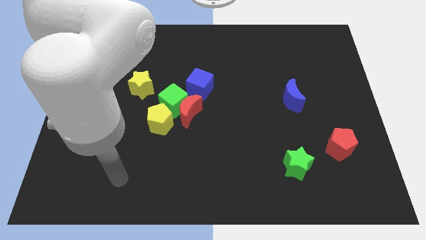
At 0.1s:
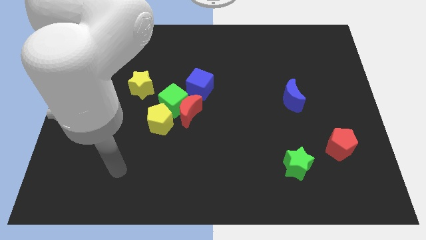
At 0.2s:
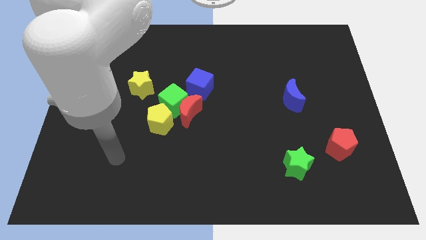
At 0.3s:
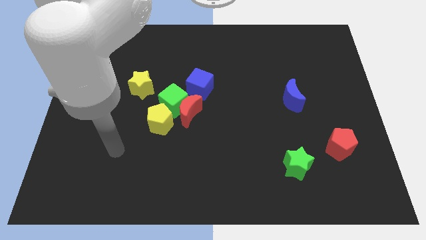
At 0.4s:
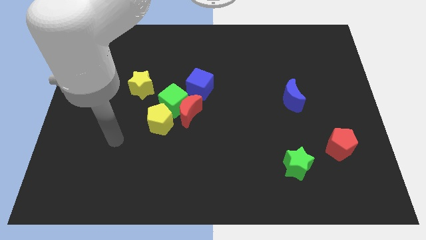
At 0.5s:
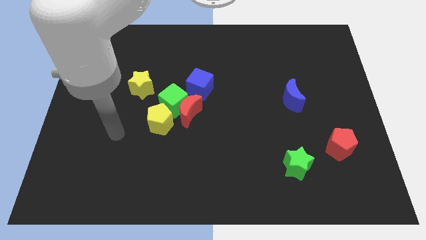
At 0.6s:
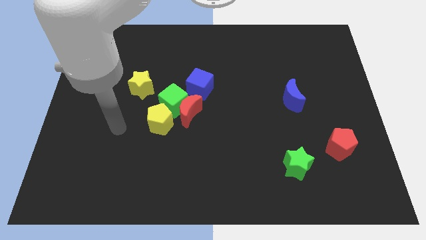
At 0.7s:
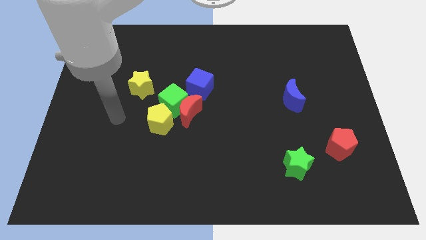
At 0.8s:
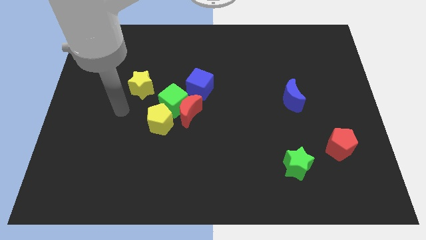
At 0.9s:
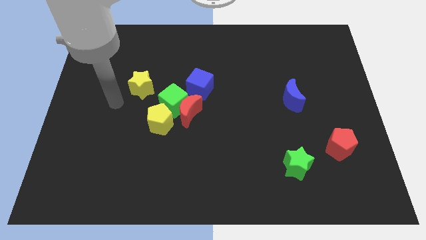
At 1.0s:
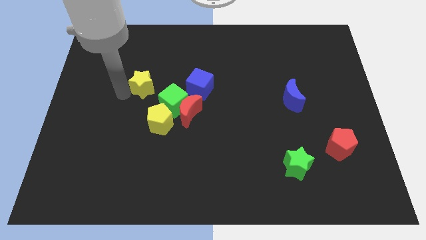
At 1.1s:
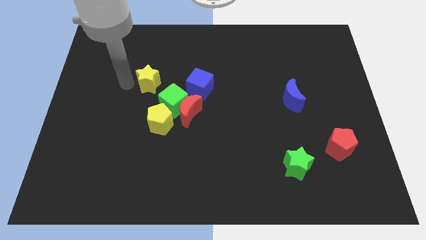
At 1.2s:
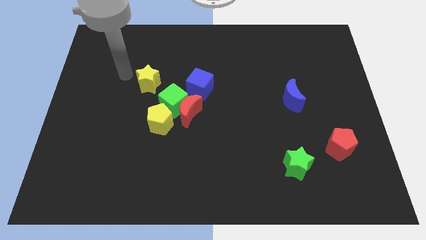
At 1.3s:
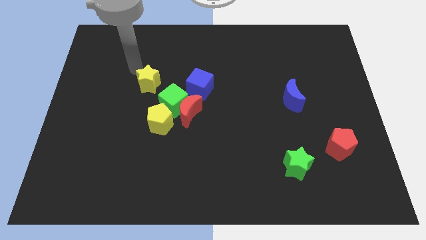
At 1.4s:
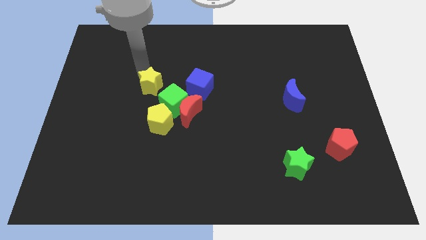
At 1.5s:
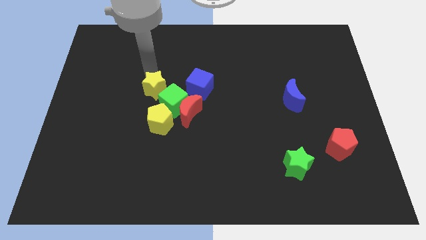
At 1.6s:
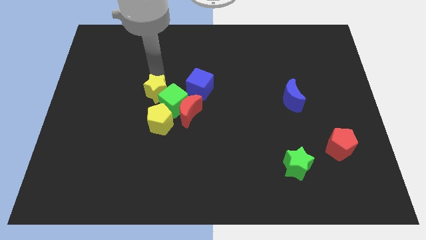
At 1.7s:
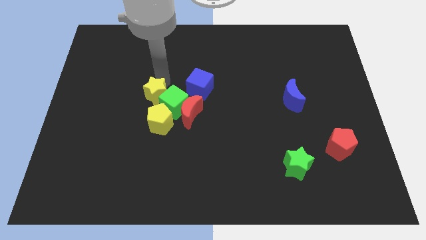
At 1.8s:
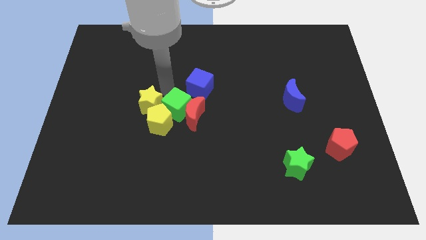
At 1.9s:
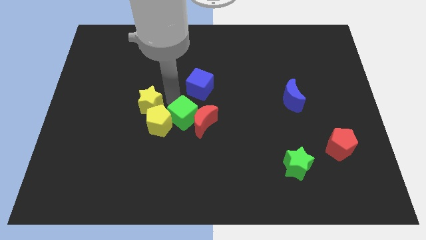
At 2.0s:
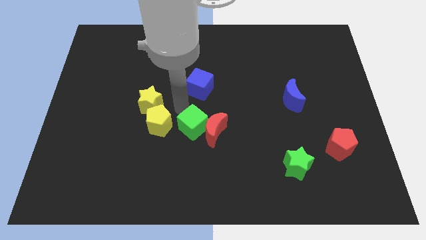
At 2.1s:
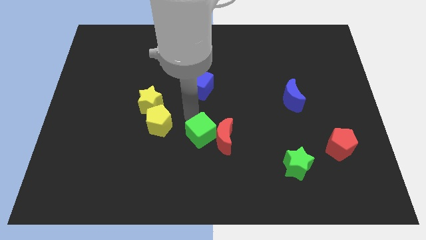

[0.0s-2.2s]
move the red moon away from the group

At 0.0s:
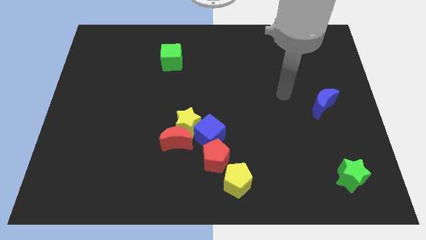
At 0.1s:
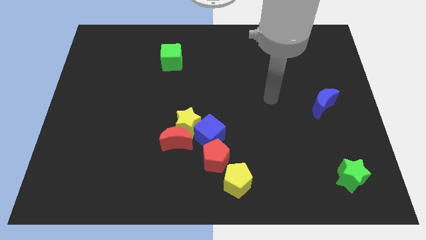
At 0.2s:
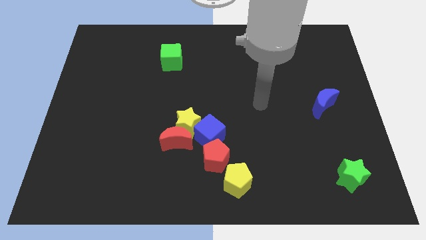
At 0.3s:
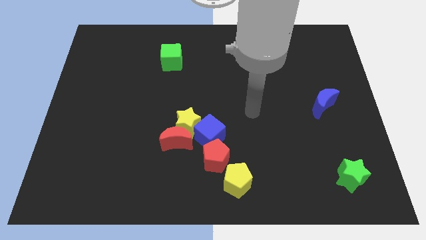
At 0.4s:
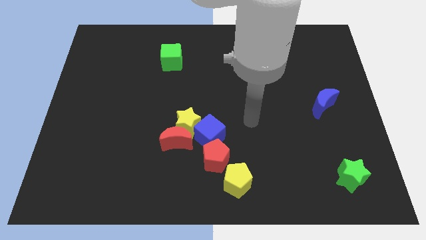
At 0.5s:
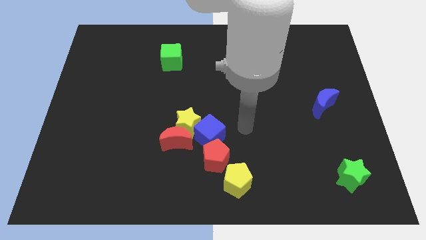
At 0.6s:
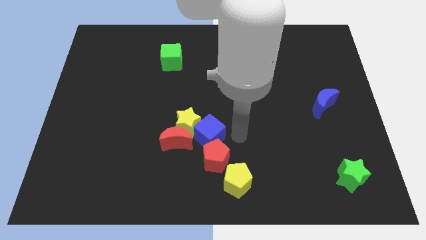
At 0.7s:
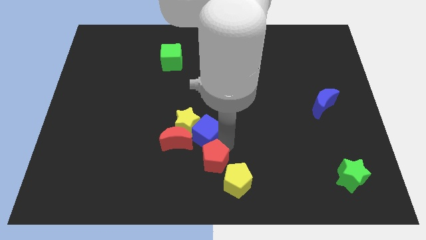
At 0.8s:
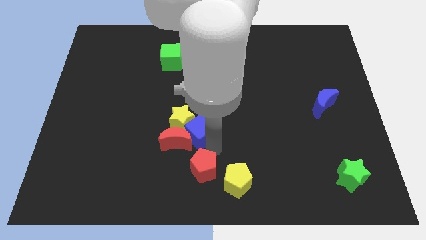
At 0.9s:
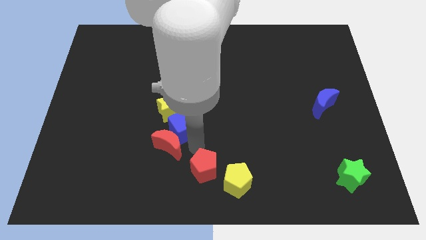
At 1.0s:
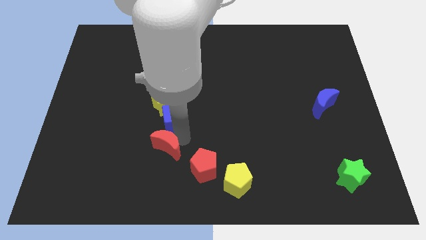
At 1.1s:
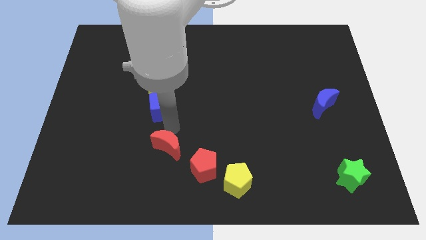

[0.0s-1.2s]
move the yellow star away from the red moon and blue cube

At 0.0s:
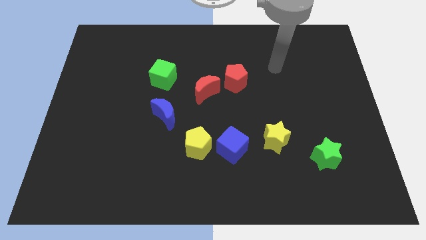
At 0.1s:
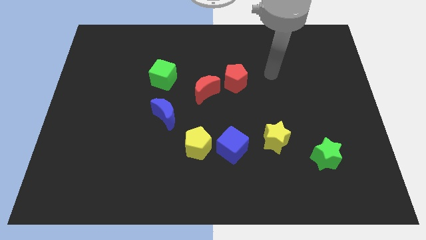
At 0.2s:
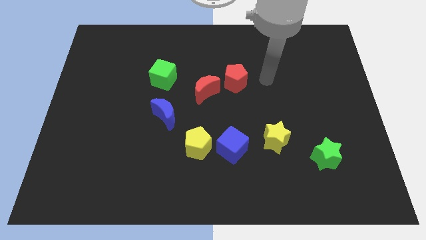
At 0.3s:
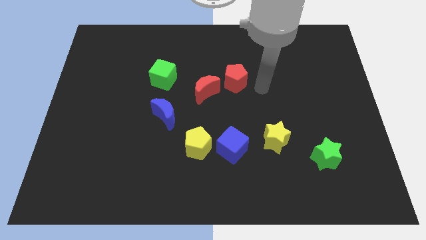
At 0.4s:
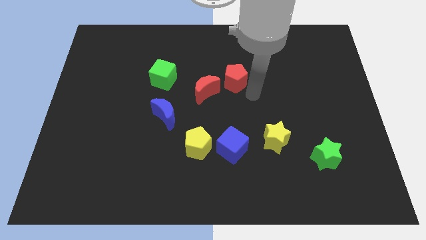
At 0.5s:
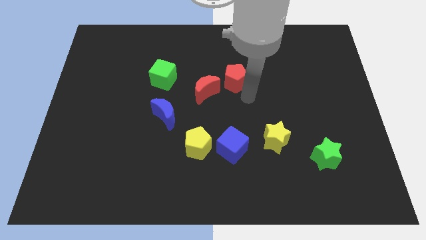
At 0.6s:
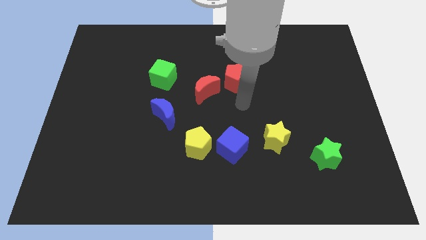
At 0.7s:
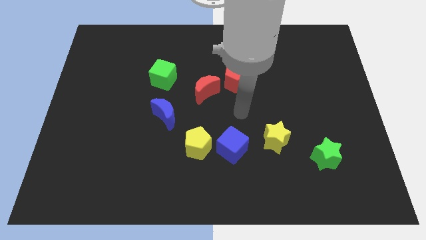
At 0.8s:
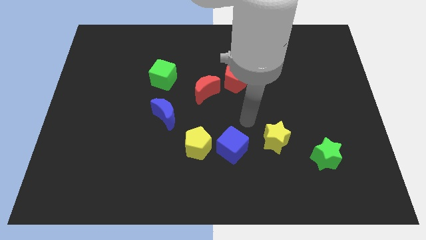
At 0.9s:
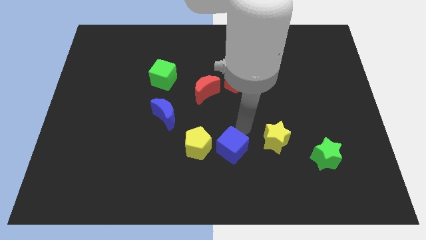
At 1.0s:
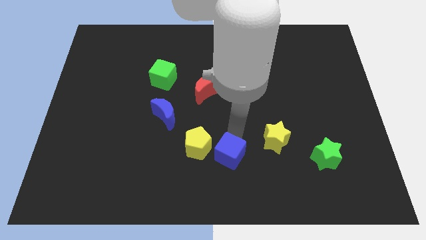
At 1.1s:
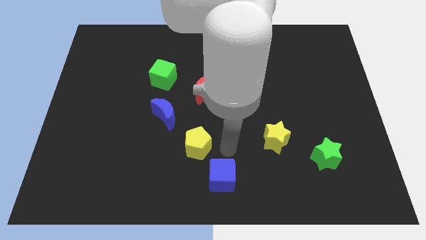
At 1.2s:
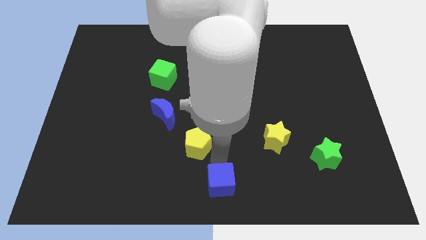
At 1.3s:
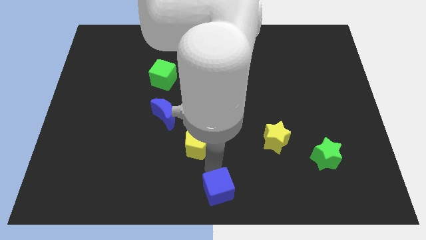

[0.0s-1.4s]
pull the yellow pentagon apart from the blue cube

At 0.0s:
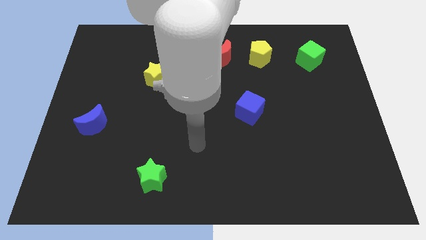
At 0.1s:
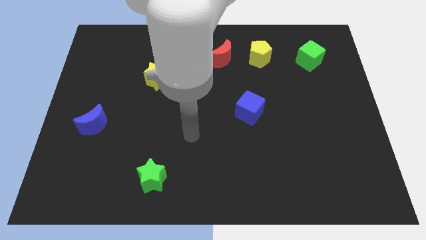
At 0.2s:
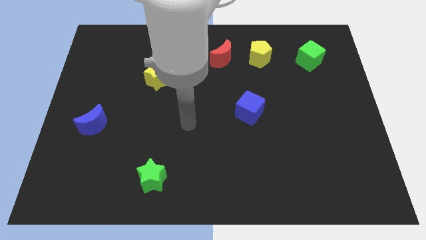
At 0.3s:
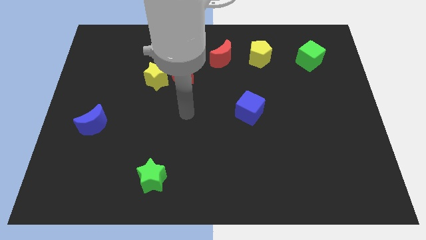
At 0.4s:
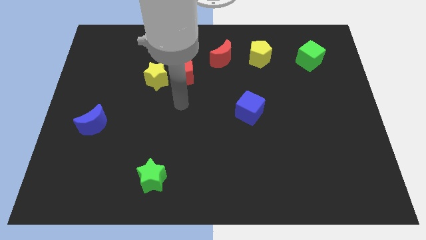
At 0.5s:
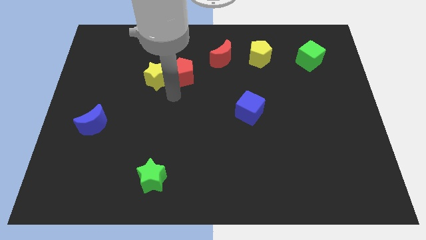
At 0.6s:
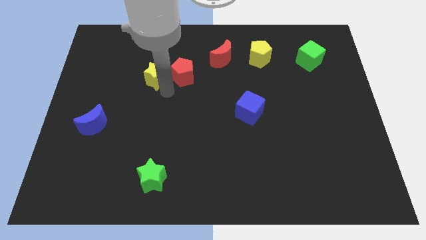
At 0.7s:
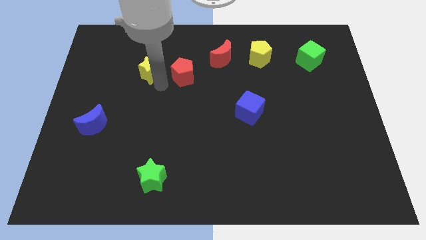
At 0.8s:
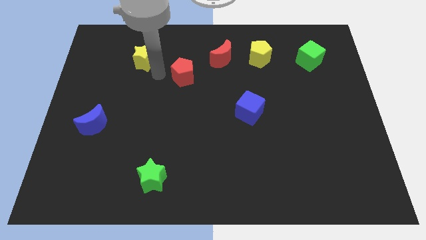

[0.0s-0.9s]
pull the red pentagon apart from the yellow star

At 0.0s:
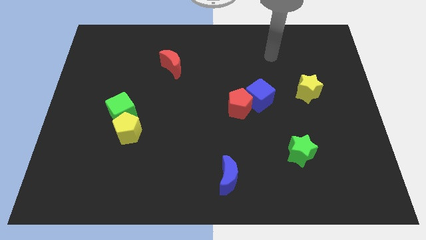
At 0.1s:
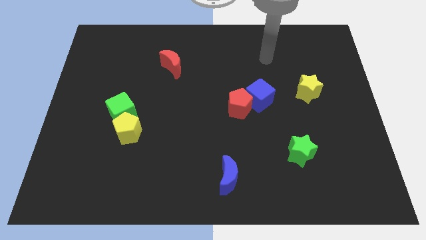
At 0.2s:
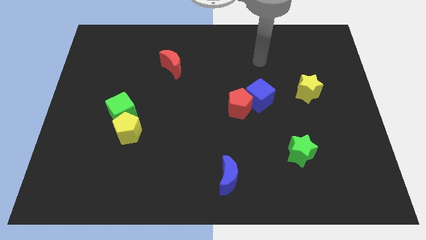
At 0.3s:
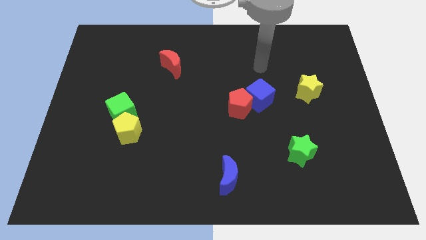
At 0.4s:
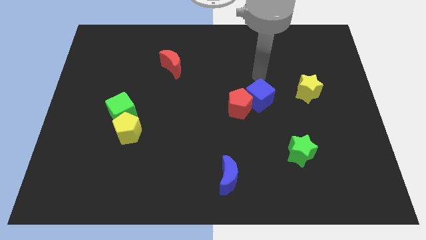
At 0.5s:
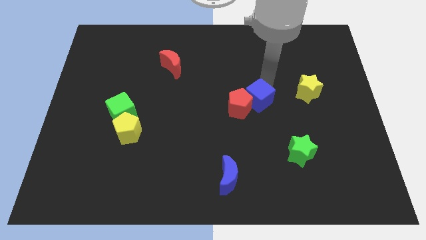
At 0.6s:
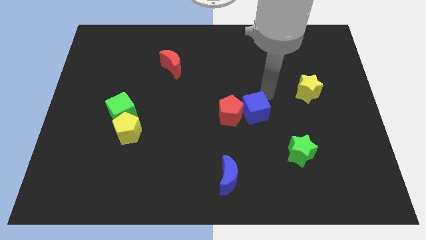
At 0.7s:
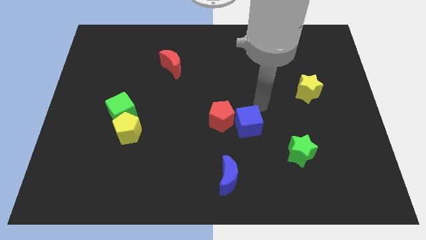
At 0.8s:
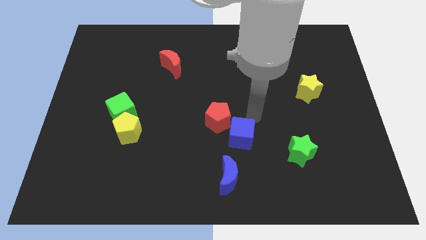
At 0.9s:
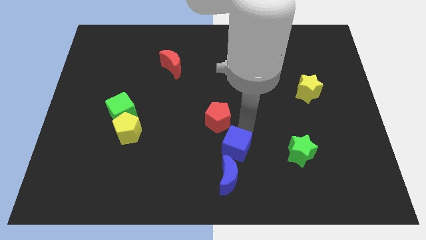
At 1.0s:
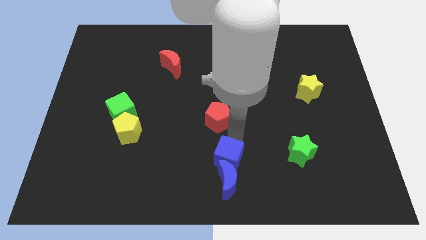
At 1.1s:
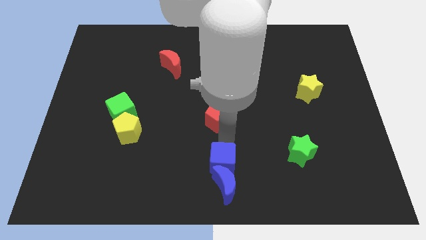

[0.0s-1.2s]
pull the red pentagon apart from the blue cube

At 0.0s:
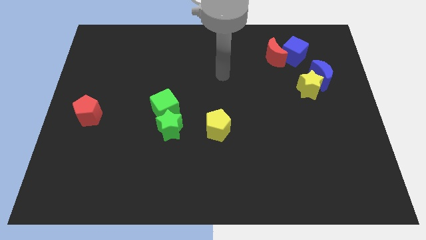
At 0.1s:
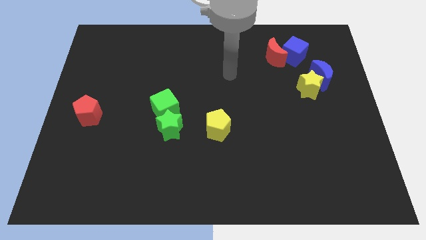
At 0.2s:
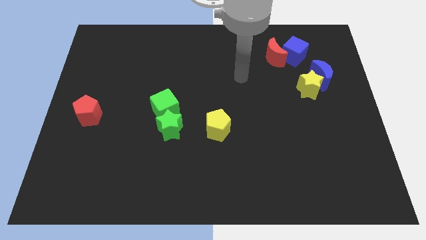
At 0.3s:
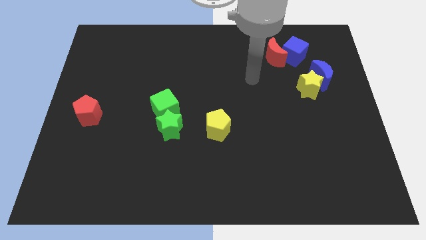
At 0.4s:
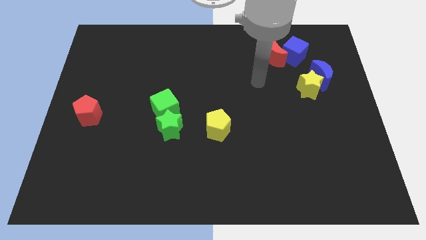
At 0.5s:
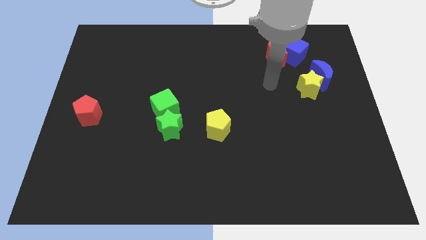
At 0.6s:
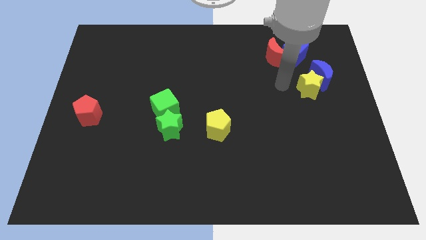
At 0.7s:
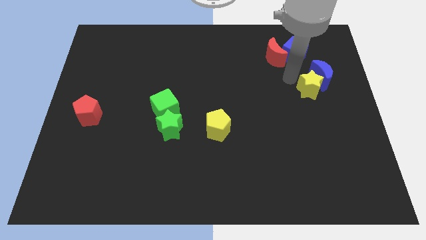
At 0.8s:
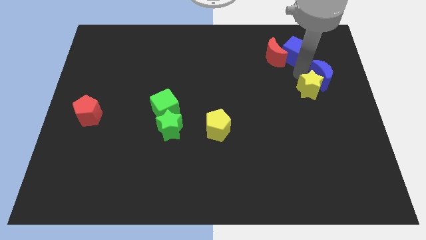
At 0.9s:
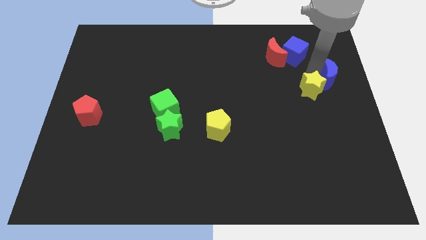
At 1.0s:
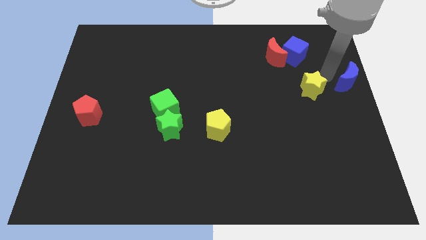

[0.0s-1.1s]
move the yellow star away from the blue moon

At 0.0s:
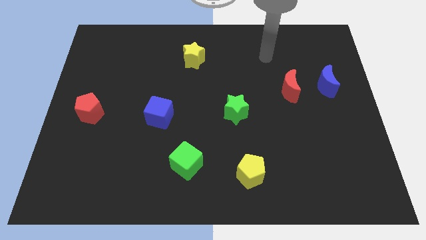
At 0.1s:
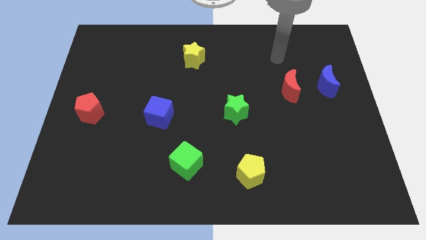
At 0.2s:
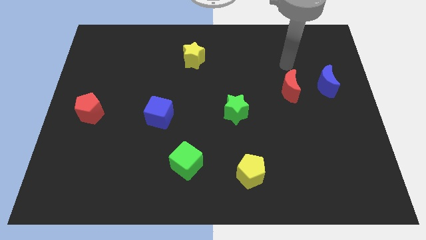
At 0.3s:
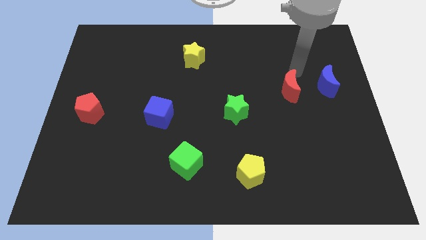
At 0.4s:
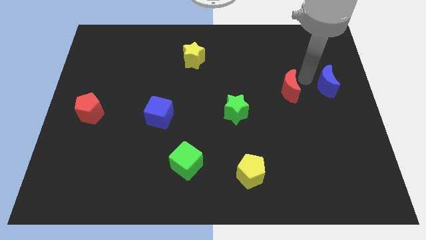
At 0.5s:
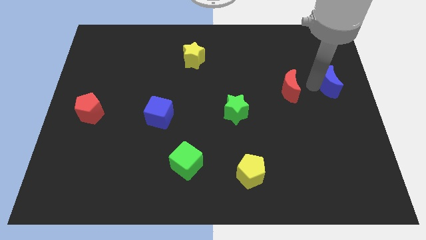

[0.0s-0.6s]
separate the red moon from the blue moon

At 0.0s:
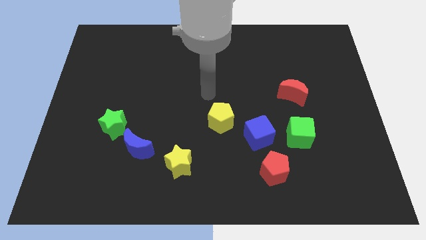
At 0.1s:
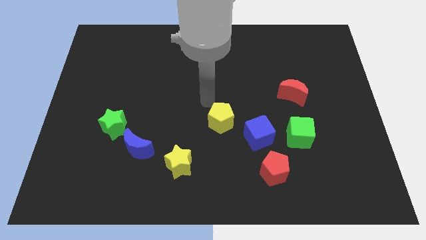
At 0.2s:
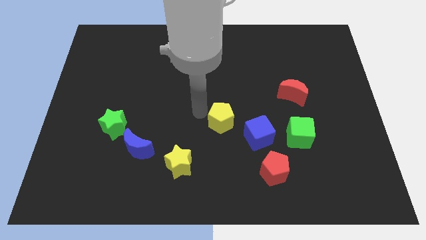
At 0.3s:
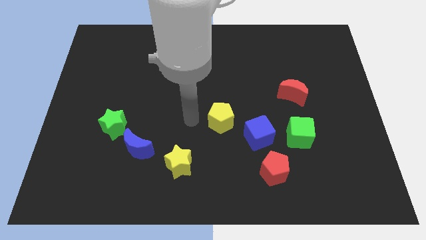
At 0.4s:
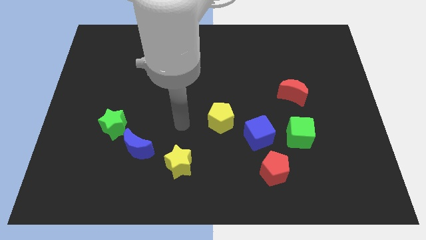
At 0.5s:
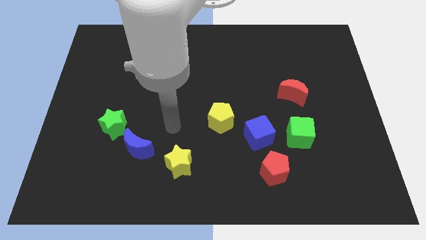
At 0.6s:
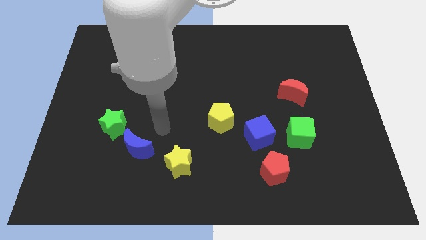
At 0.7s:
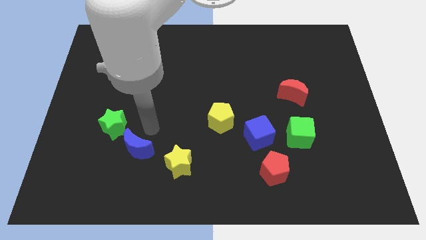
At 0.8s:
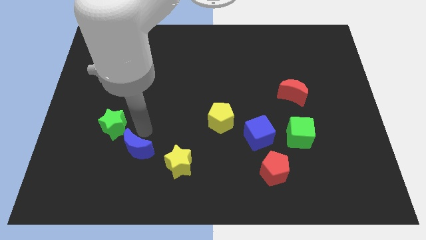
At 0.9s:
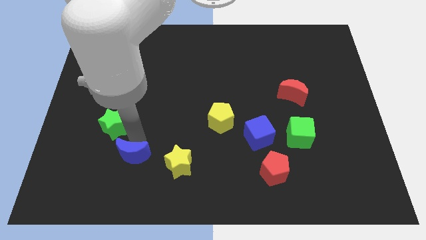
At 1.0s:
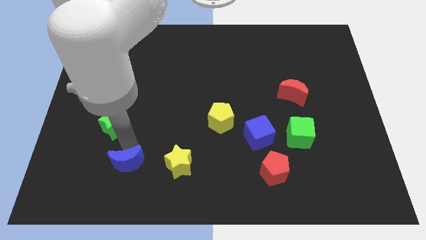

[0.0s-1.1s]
pull the green star apart from the blue moon
